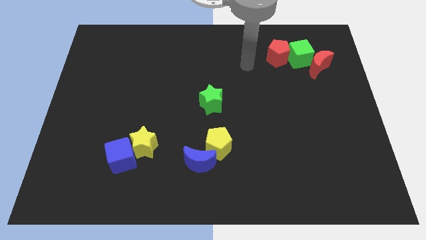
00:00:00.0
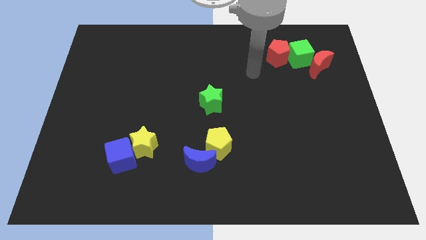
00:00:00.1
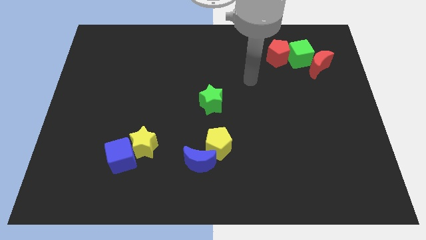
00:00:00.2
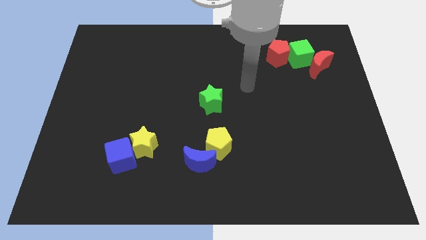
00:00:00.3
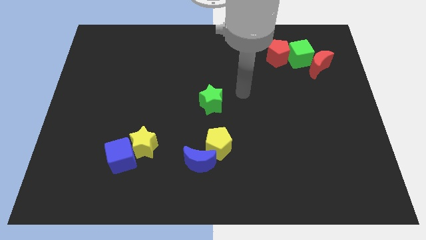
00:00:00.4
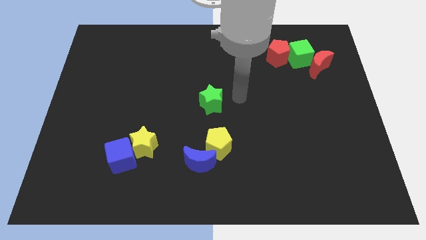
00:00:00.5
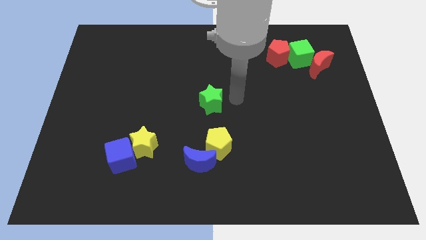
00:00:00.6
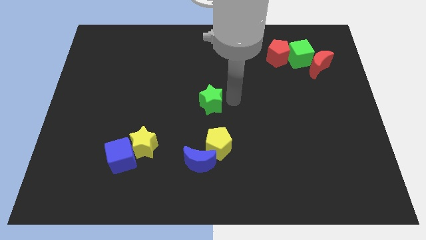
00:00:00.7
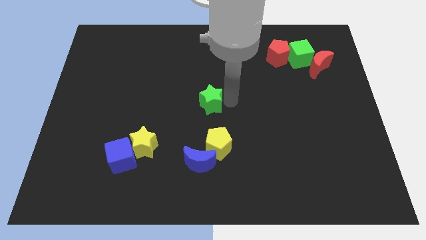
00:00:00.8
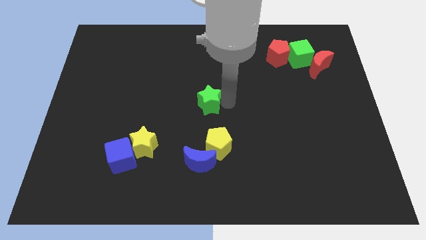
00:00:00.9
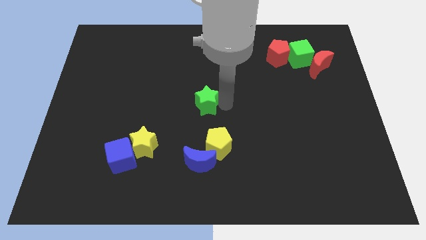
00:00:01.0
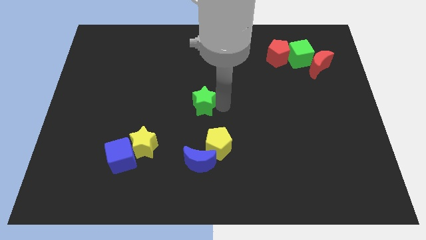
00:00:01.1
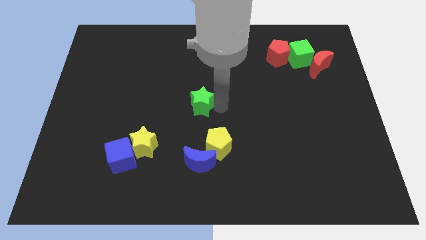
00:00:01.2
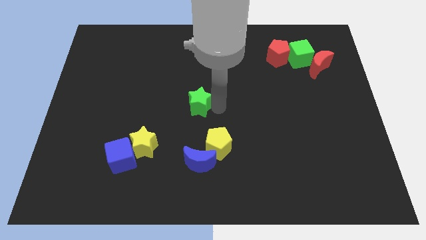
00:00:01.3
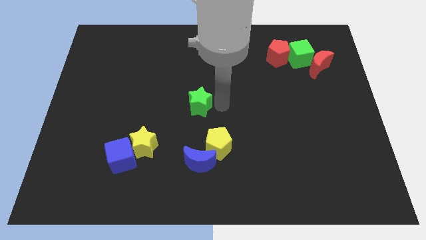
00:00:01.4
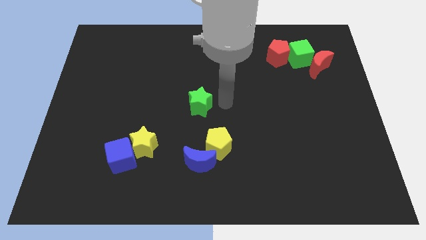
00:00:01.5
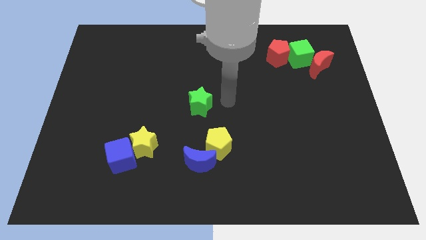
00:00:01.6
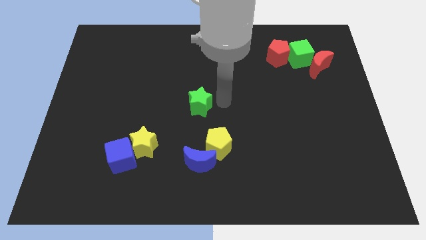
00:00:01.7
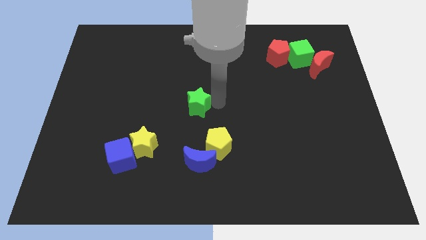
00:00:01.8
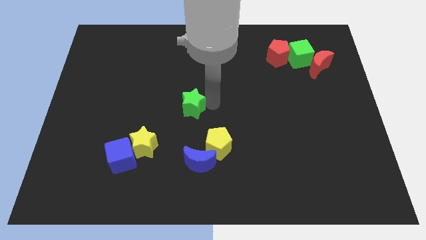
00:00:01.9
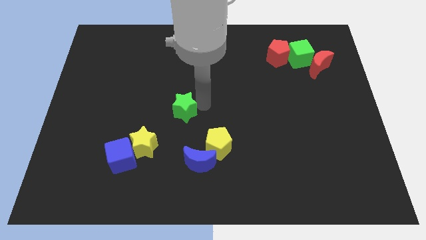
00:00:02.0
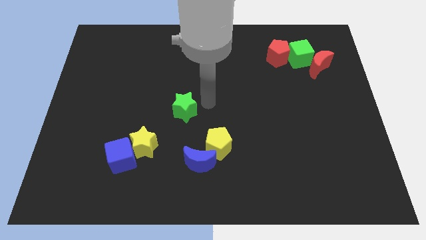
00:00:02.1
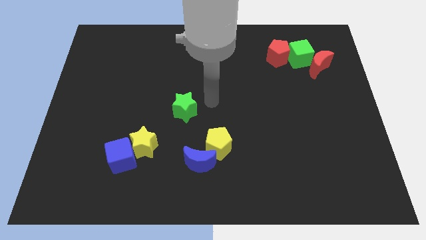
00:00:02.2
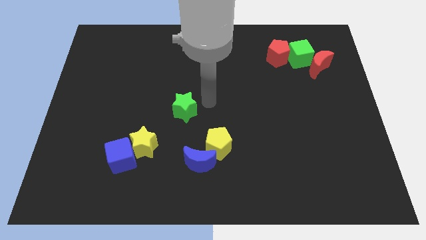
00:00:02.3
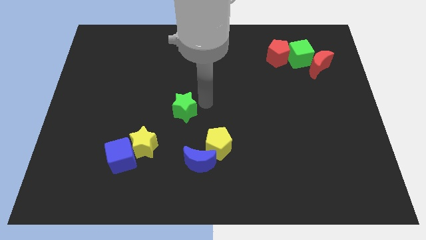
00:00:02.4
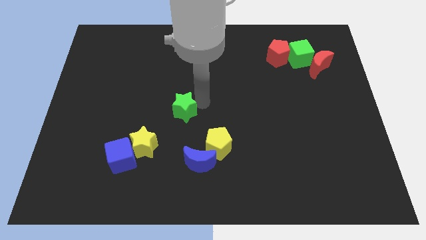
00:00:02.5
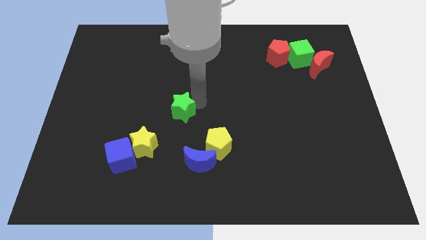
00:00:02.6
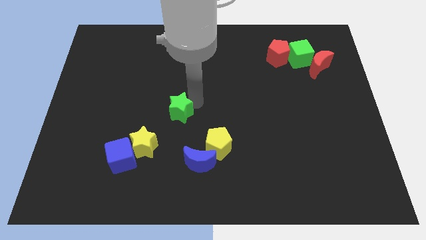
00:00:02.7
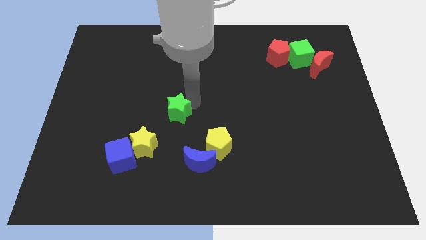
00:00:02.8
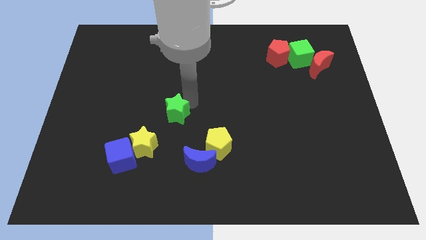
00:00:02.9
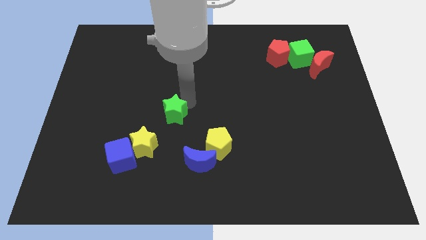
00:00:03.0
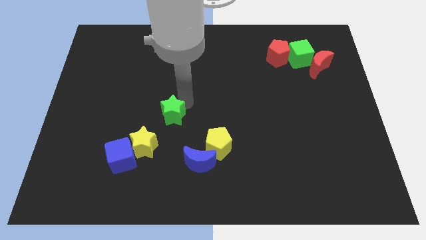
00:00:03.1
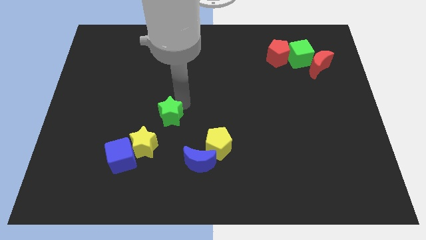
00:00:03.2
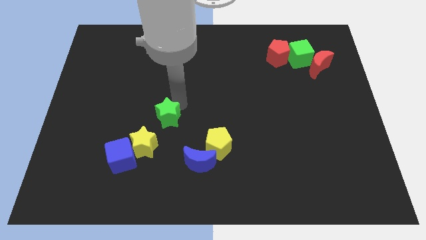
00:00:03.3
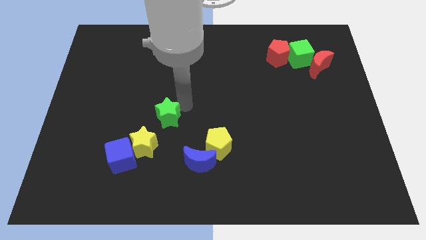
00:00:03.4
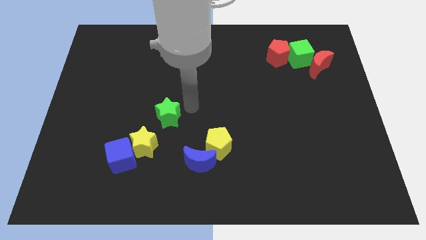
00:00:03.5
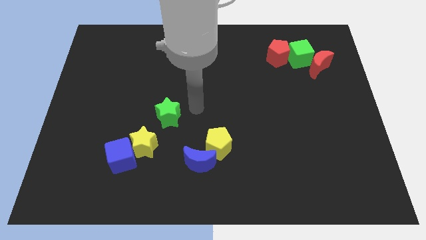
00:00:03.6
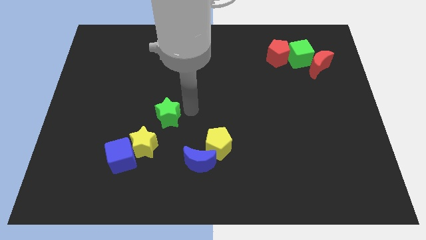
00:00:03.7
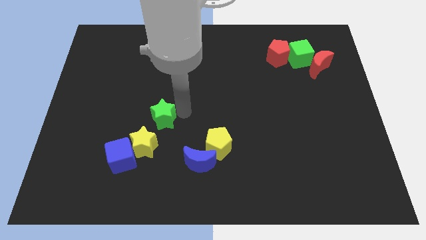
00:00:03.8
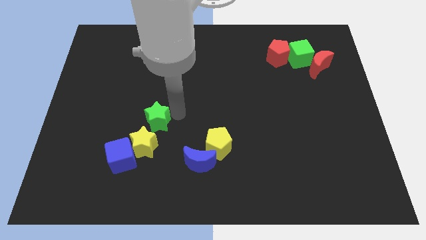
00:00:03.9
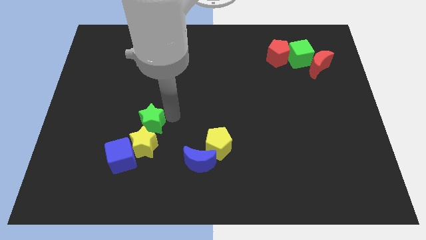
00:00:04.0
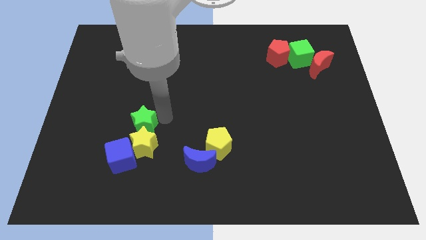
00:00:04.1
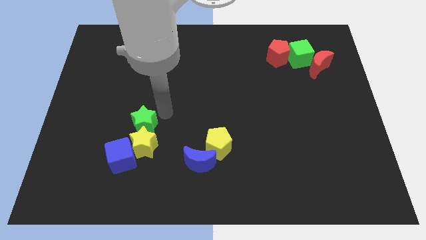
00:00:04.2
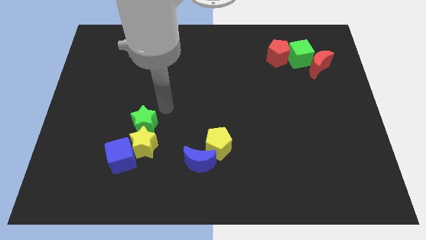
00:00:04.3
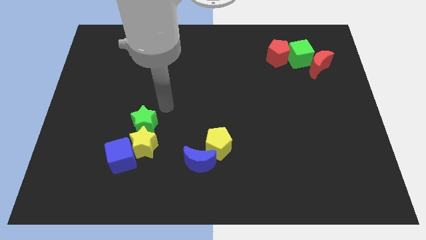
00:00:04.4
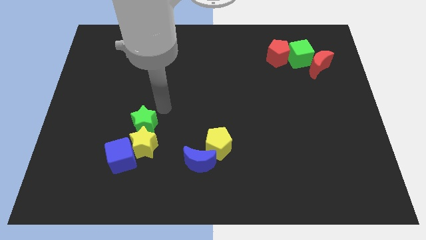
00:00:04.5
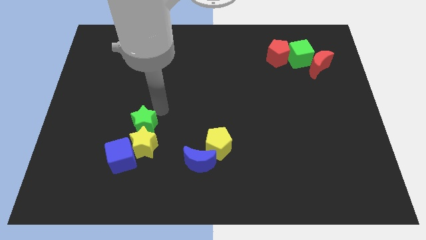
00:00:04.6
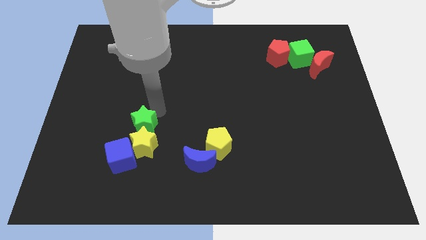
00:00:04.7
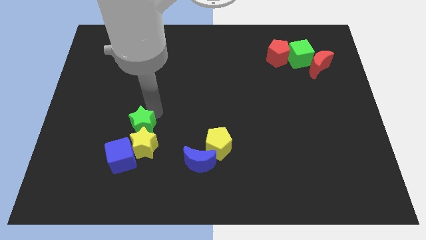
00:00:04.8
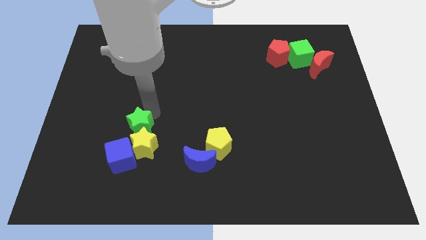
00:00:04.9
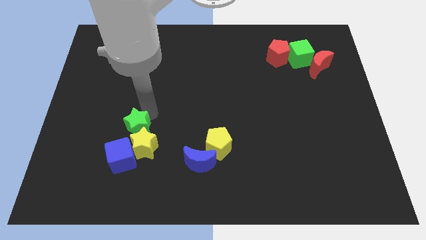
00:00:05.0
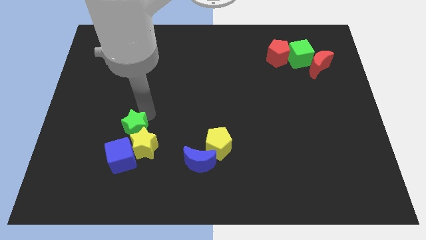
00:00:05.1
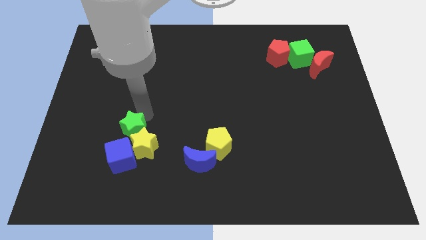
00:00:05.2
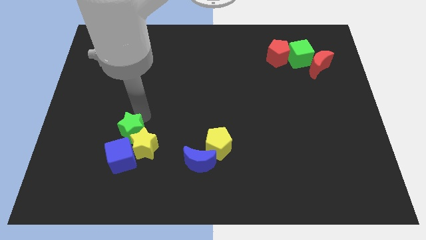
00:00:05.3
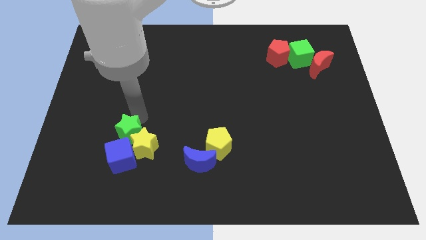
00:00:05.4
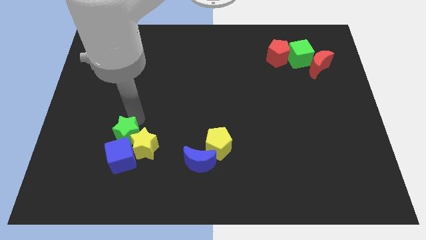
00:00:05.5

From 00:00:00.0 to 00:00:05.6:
push the green star next to the blue cube

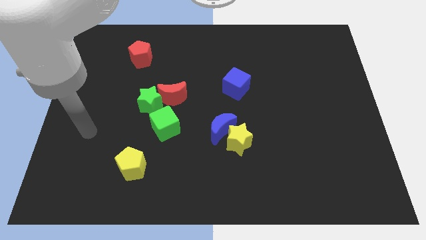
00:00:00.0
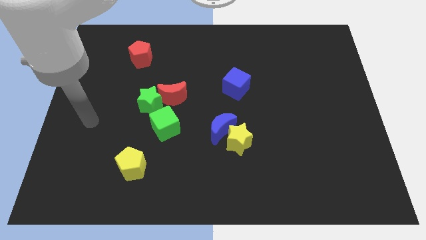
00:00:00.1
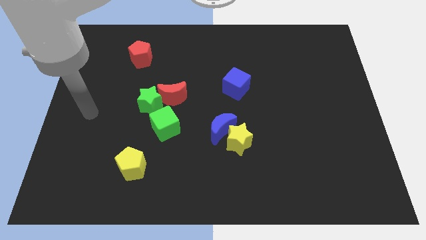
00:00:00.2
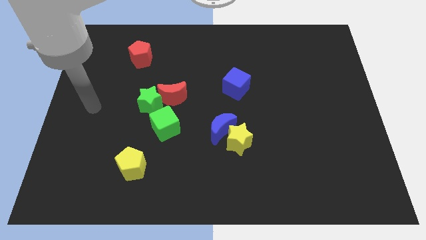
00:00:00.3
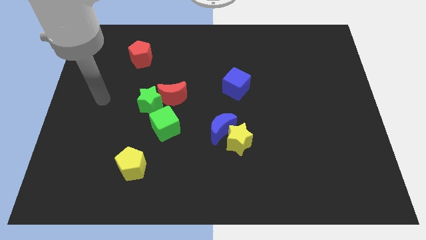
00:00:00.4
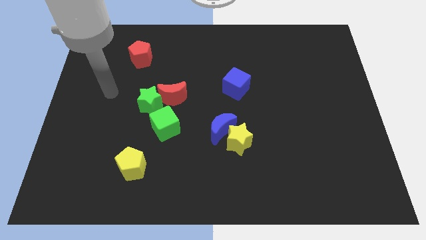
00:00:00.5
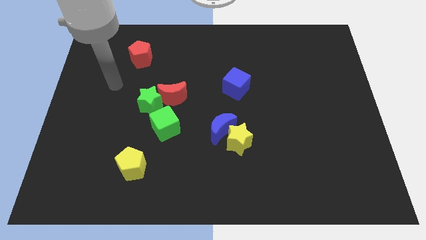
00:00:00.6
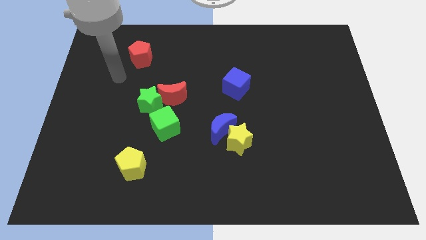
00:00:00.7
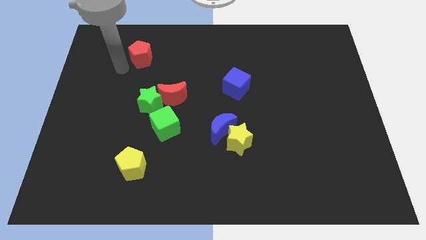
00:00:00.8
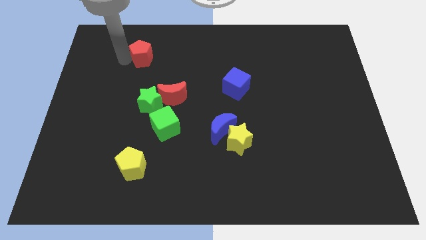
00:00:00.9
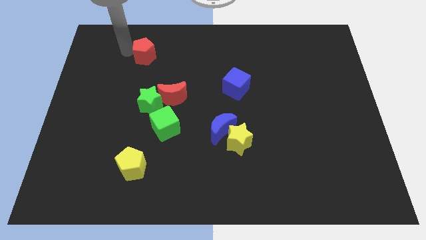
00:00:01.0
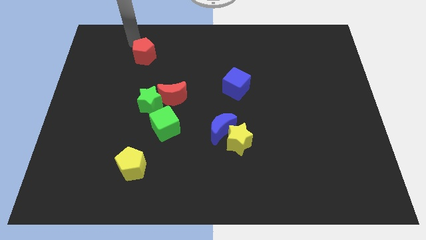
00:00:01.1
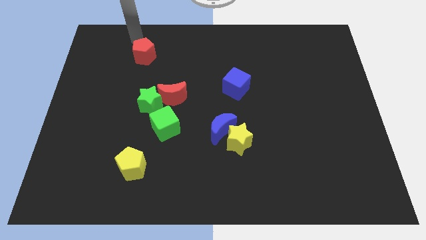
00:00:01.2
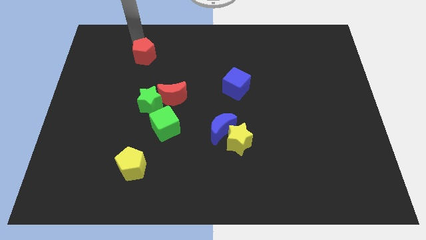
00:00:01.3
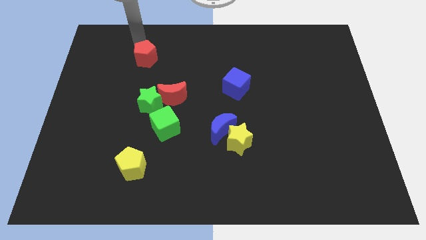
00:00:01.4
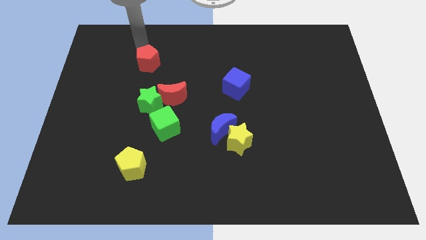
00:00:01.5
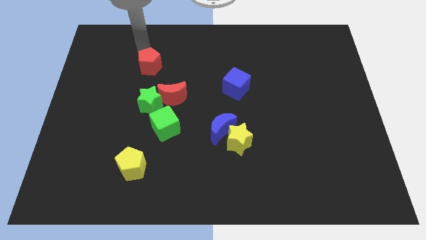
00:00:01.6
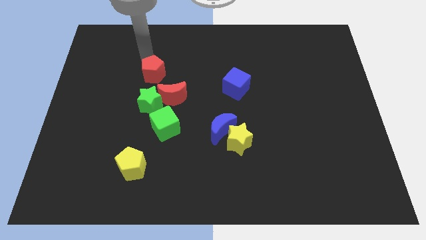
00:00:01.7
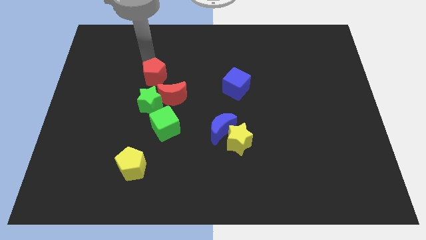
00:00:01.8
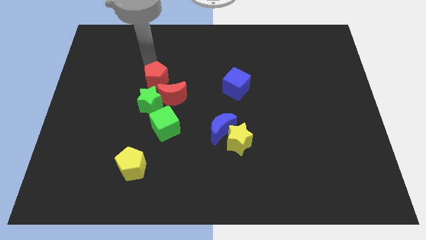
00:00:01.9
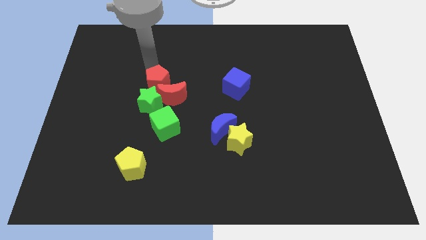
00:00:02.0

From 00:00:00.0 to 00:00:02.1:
put the red pentagon to the red moon
